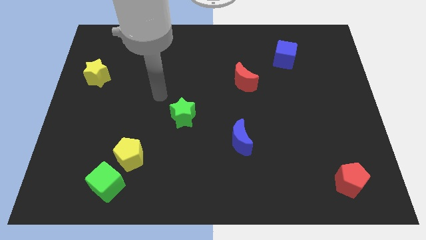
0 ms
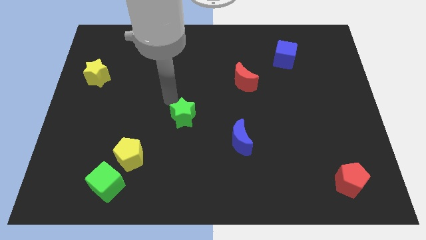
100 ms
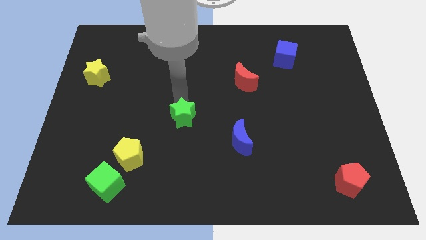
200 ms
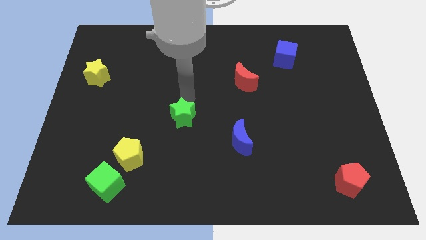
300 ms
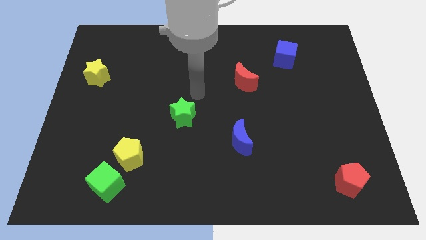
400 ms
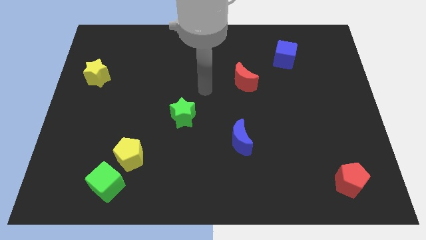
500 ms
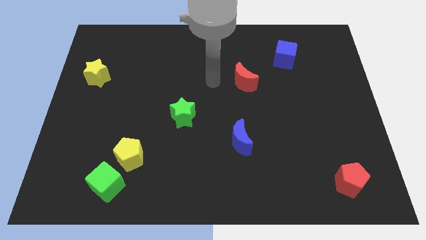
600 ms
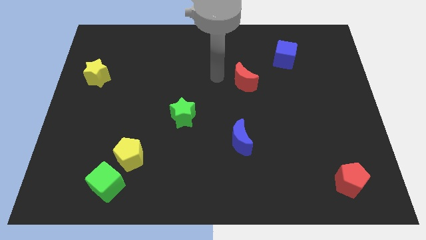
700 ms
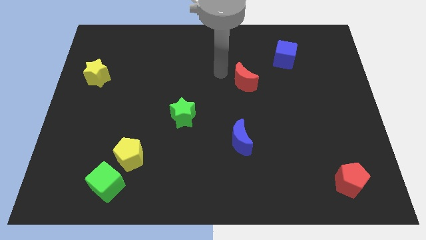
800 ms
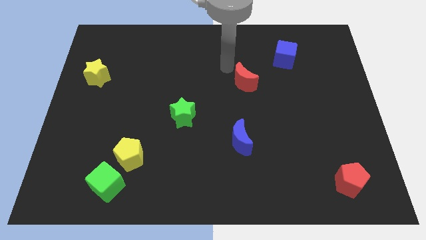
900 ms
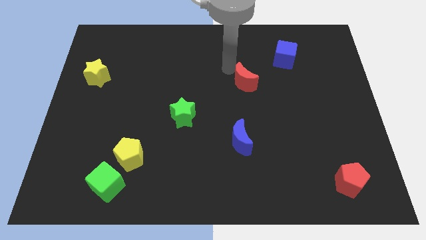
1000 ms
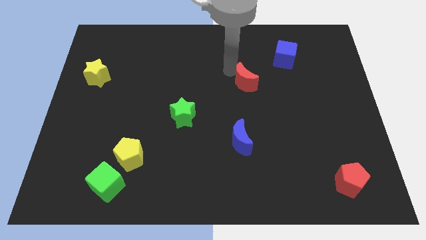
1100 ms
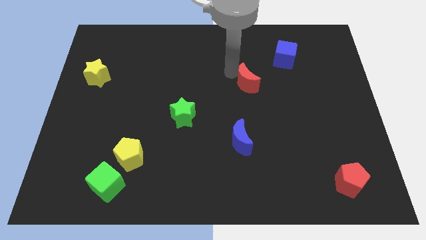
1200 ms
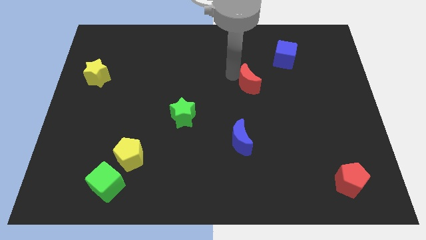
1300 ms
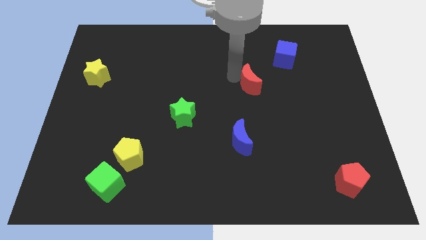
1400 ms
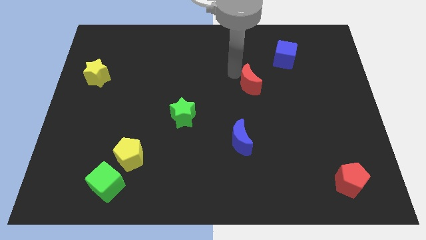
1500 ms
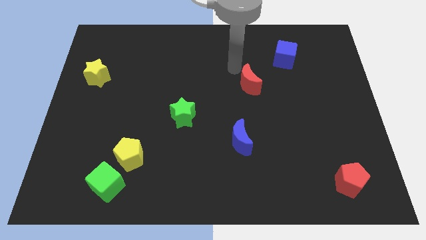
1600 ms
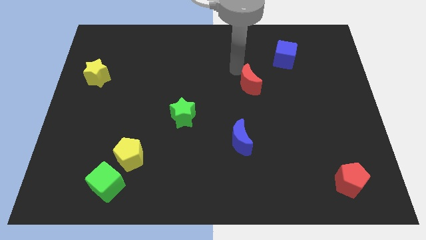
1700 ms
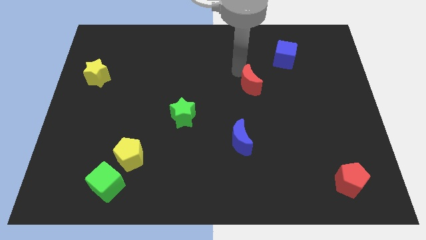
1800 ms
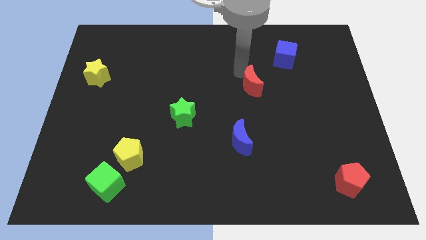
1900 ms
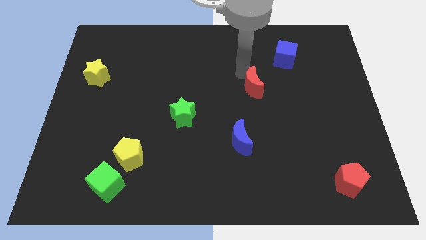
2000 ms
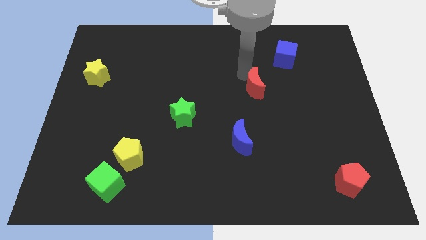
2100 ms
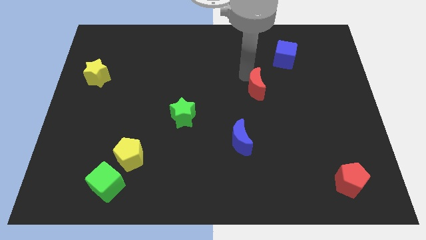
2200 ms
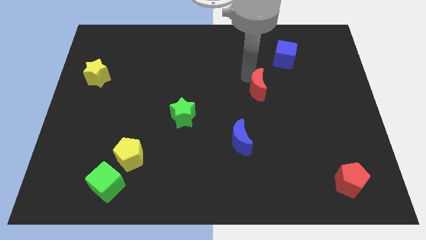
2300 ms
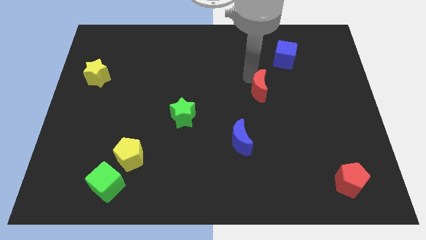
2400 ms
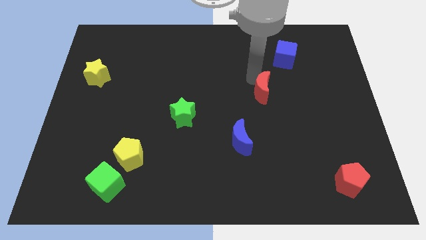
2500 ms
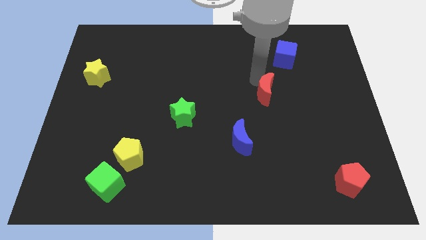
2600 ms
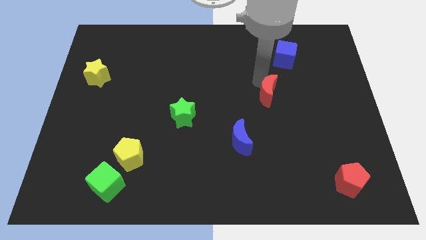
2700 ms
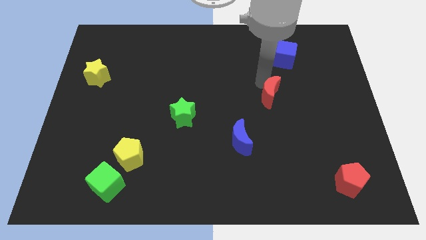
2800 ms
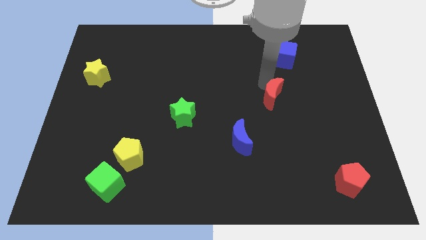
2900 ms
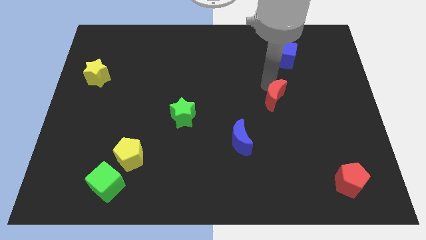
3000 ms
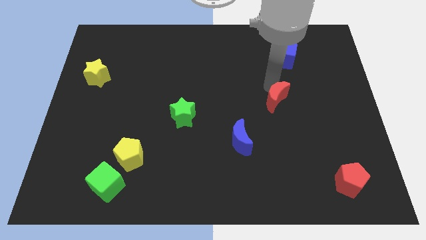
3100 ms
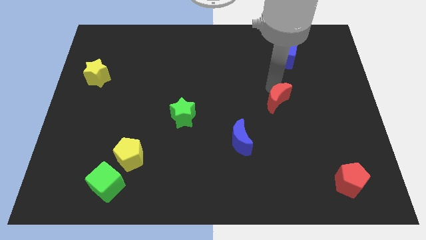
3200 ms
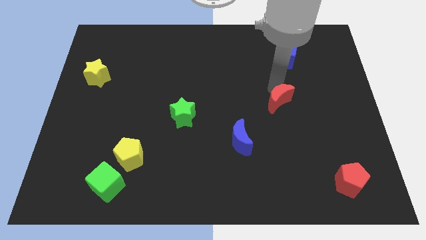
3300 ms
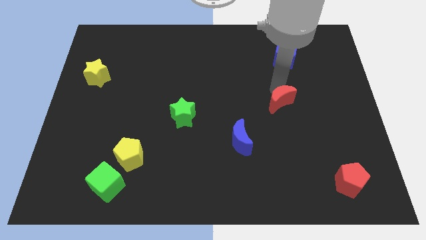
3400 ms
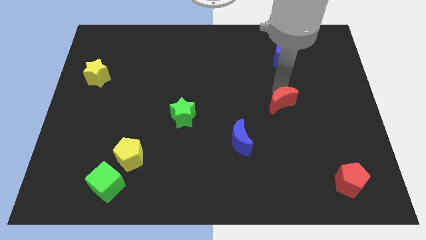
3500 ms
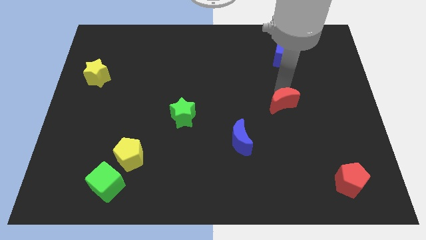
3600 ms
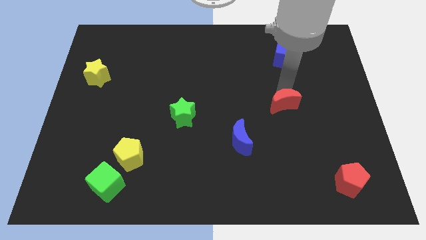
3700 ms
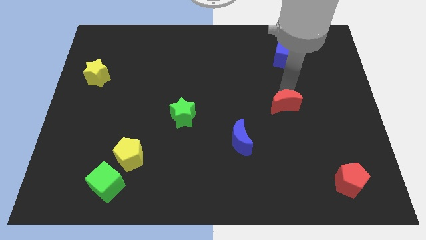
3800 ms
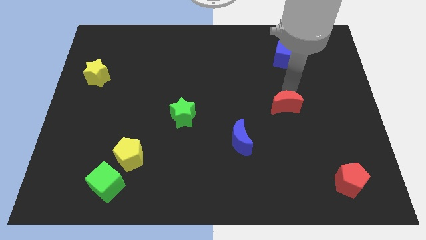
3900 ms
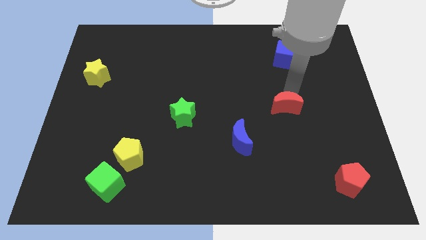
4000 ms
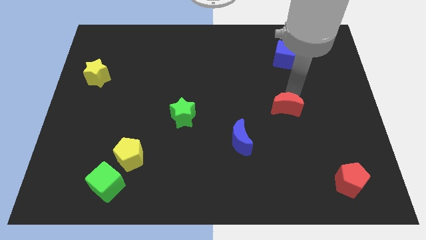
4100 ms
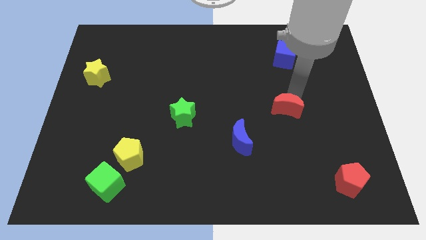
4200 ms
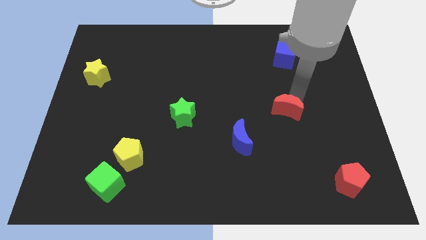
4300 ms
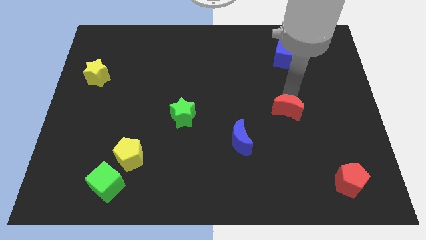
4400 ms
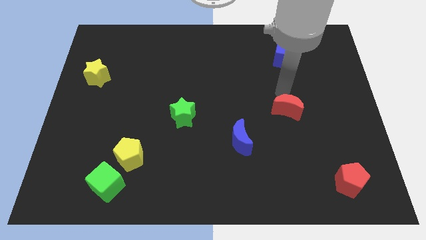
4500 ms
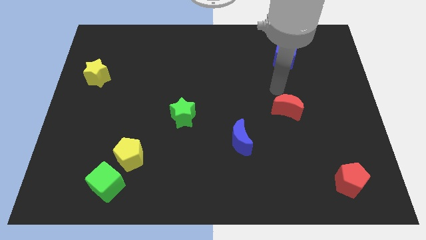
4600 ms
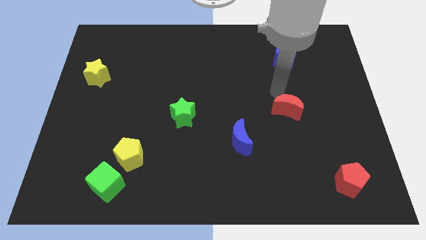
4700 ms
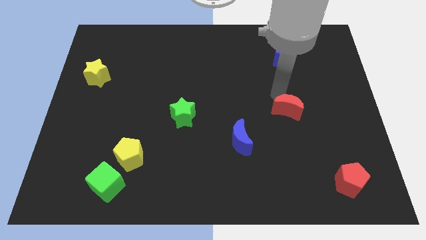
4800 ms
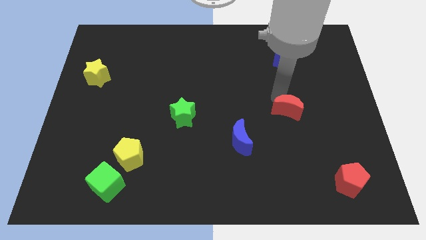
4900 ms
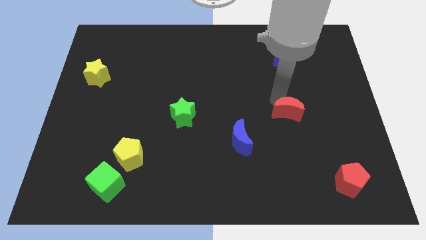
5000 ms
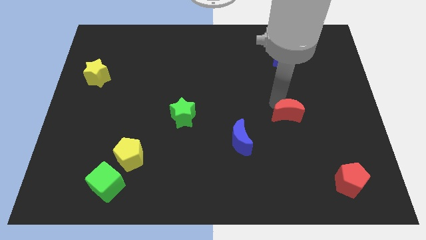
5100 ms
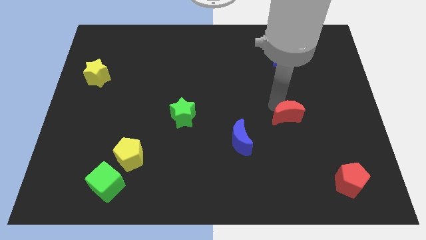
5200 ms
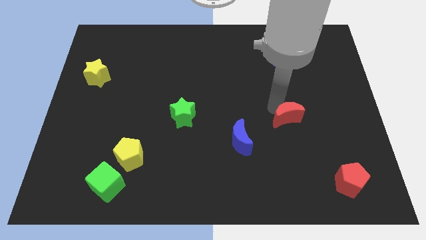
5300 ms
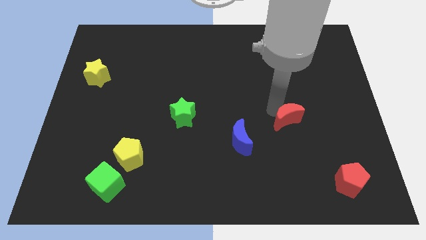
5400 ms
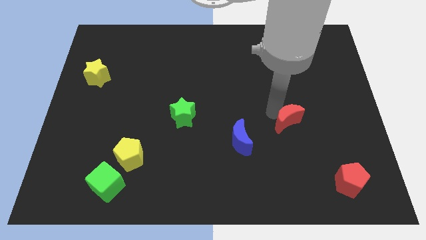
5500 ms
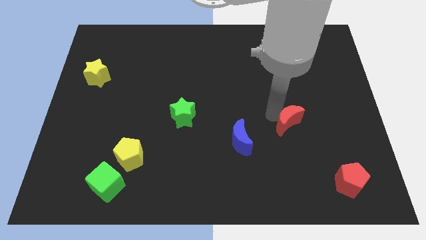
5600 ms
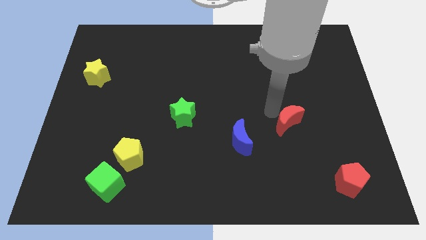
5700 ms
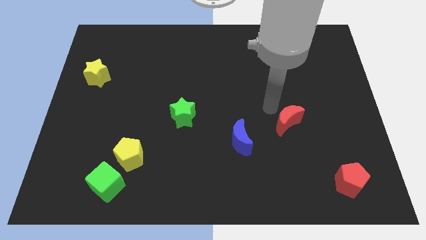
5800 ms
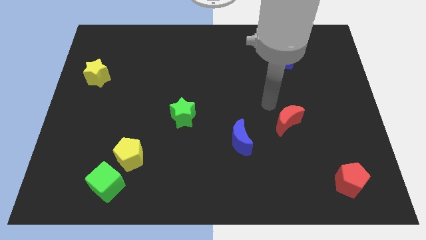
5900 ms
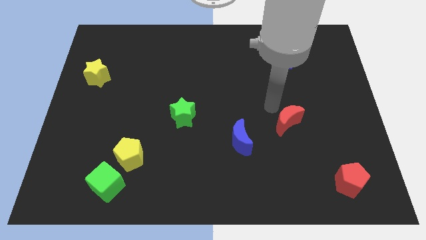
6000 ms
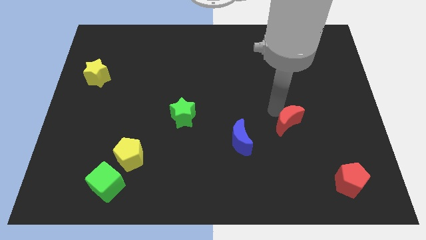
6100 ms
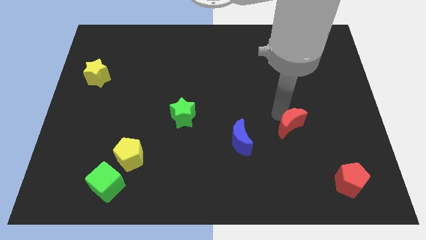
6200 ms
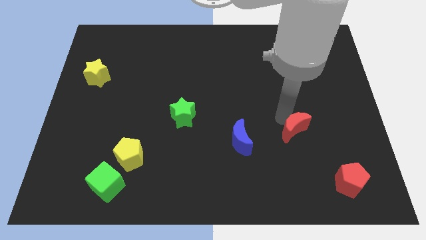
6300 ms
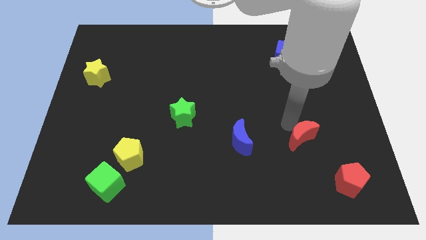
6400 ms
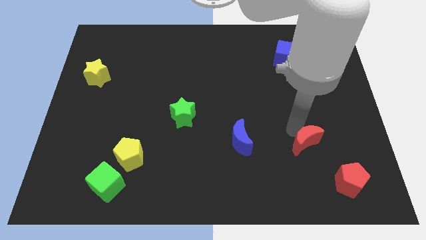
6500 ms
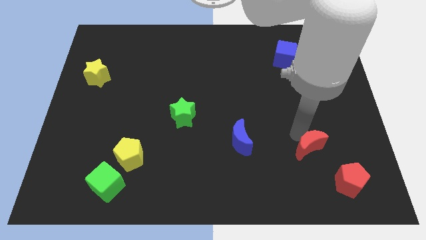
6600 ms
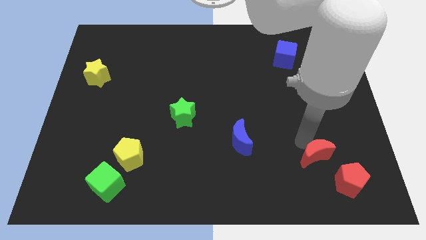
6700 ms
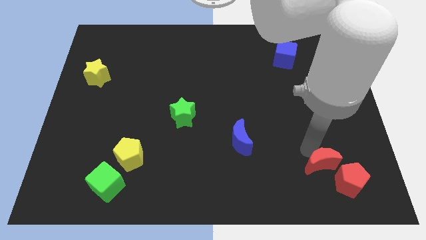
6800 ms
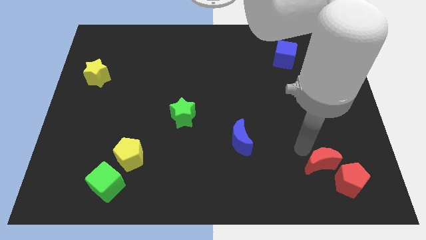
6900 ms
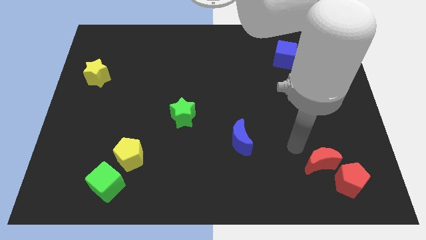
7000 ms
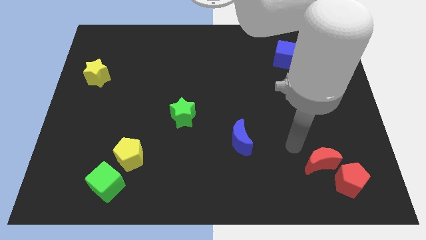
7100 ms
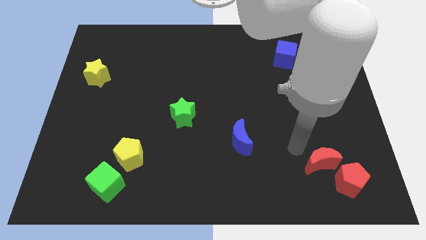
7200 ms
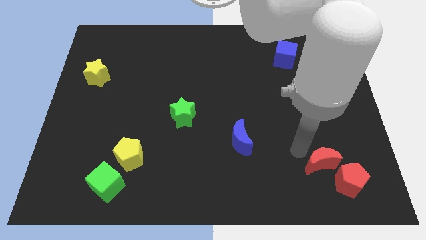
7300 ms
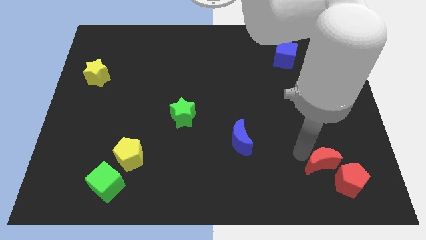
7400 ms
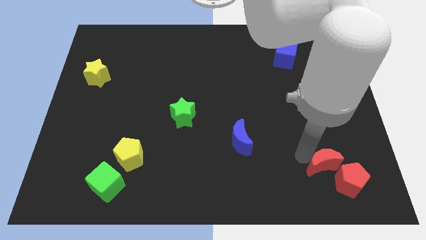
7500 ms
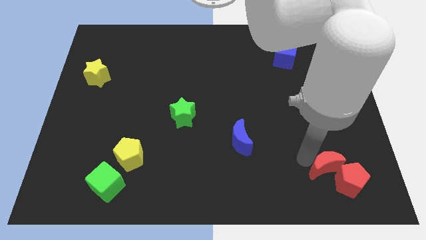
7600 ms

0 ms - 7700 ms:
slide the red moon towards the red pentagon

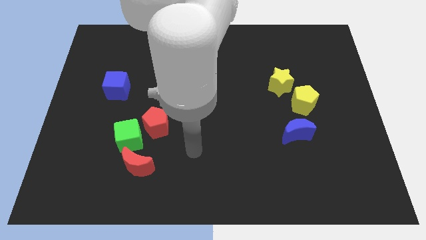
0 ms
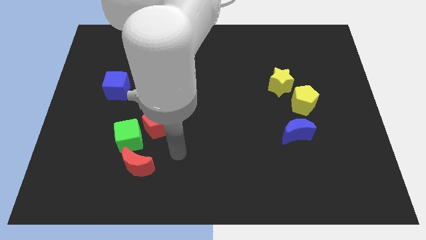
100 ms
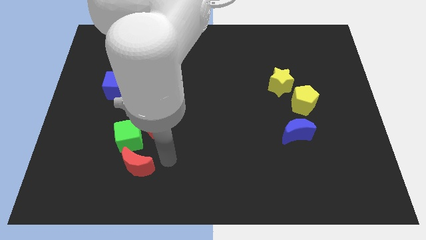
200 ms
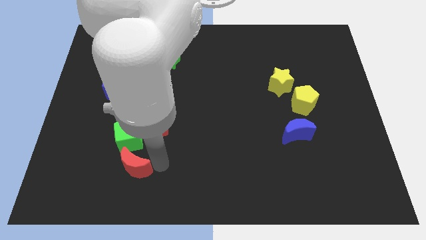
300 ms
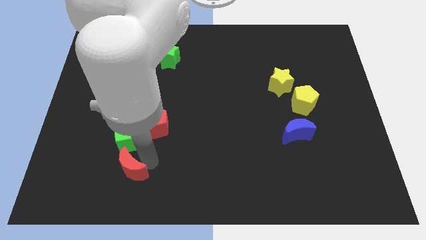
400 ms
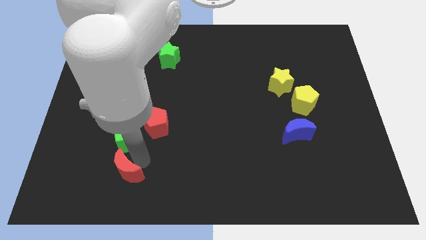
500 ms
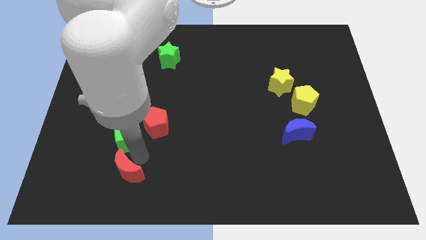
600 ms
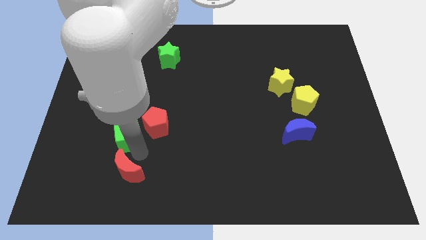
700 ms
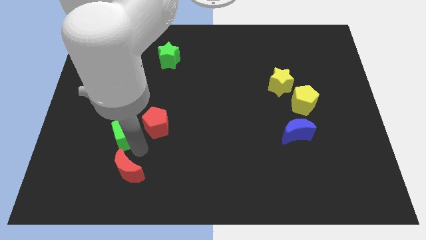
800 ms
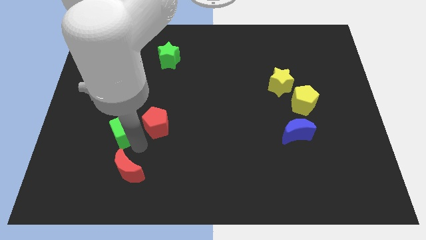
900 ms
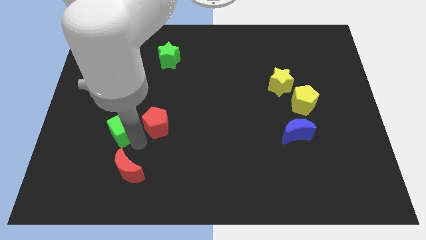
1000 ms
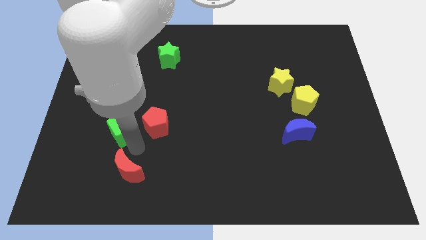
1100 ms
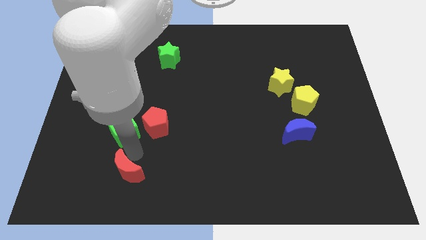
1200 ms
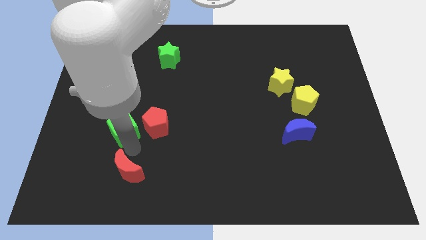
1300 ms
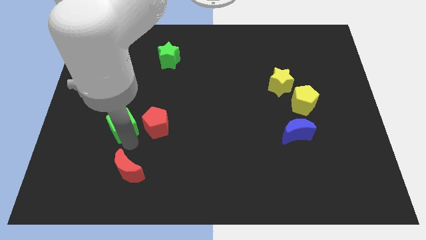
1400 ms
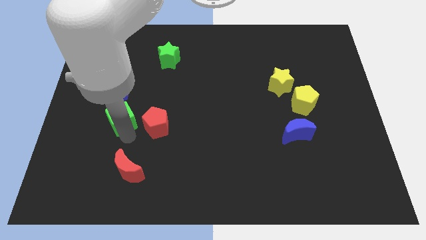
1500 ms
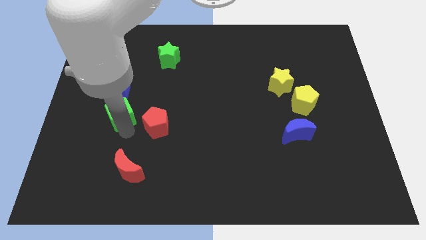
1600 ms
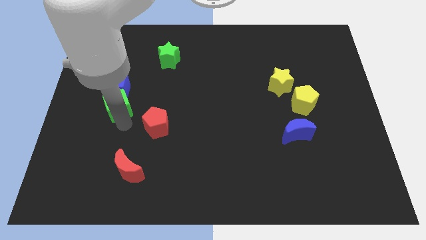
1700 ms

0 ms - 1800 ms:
move the green cube to the blue cube
